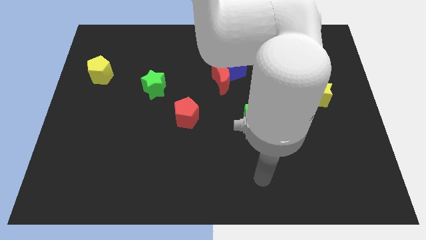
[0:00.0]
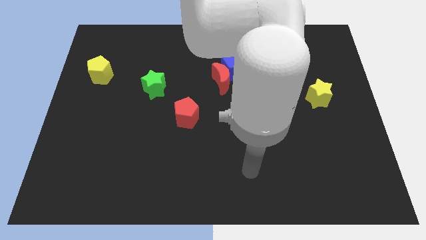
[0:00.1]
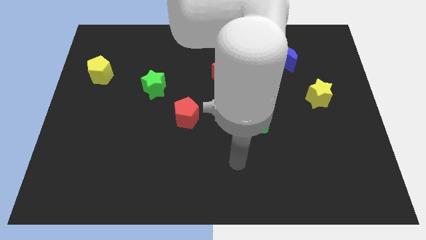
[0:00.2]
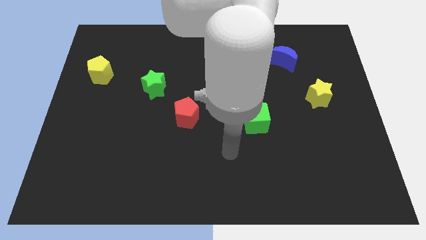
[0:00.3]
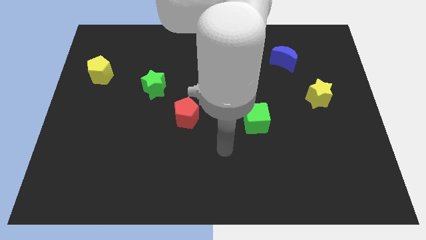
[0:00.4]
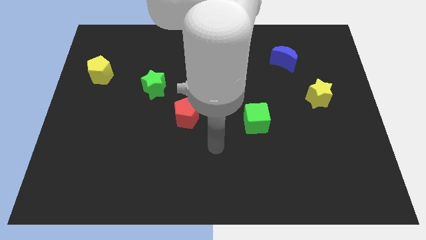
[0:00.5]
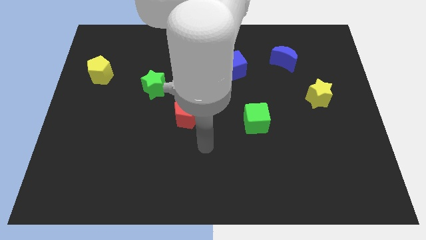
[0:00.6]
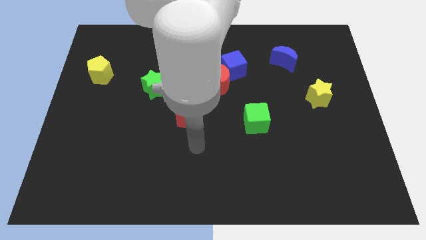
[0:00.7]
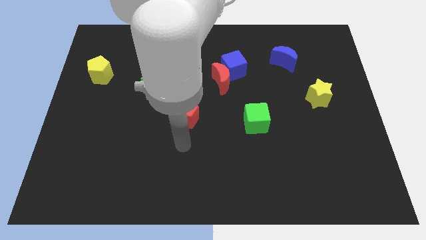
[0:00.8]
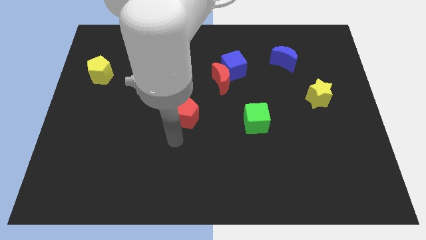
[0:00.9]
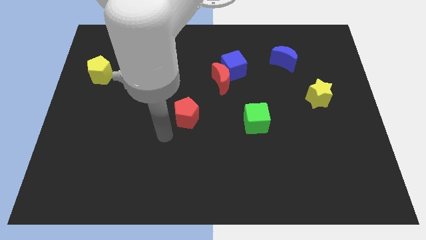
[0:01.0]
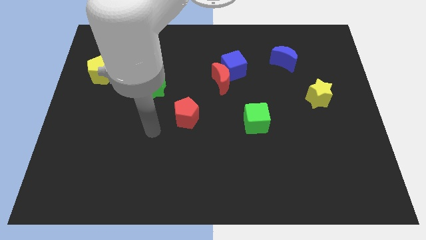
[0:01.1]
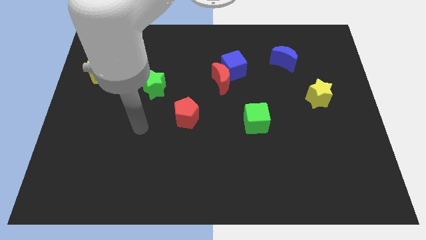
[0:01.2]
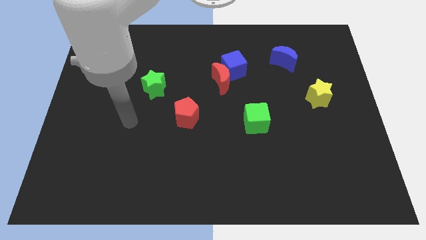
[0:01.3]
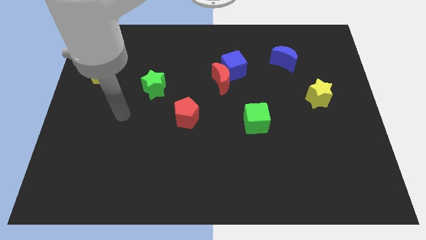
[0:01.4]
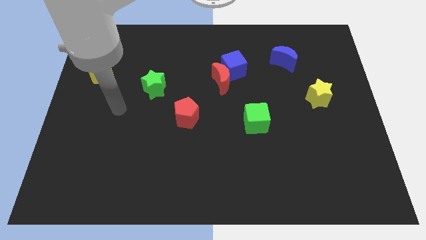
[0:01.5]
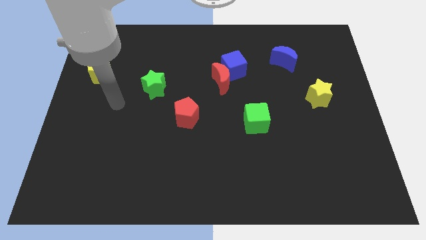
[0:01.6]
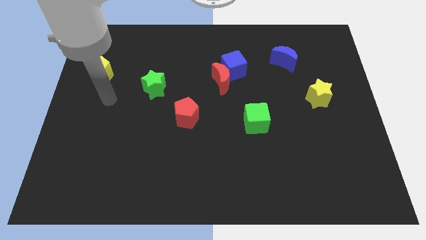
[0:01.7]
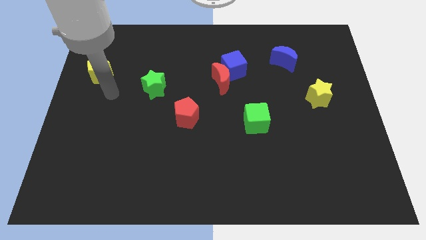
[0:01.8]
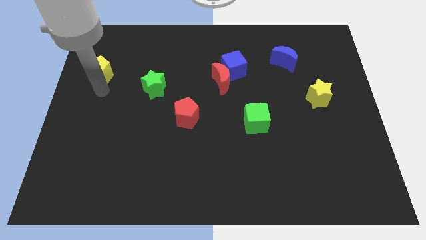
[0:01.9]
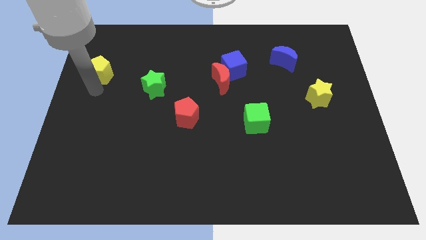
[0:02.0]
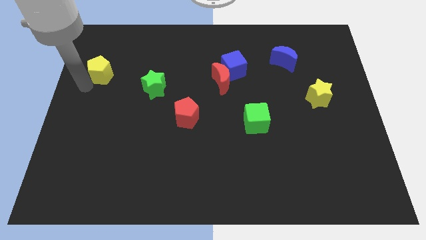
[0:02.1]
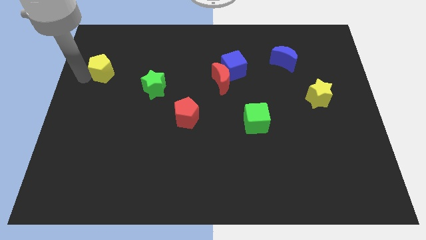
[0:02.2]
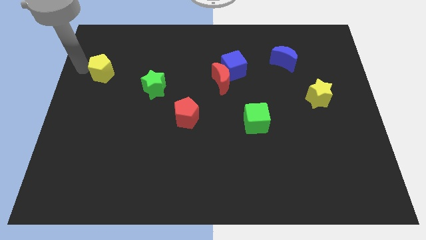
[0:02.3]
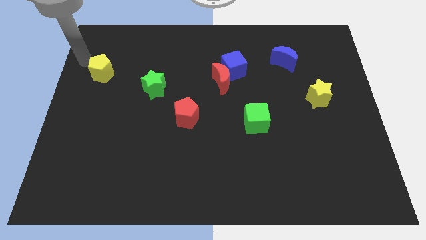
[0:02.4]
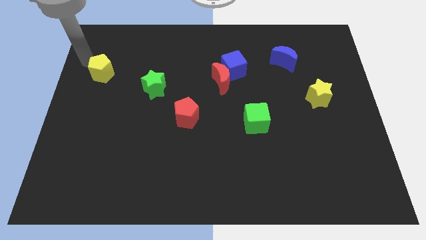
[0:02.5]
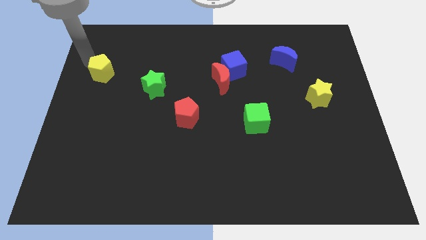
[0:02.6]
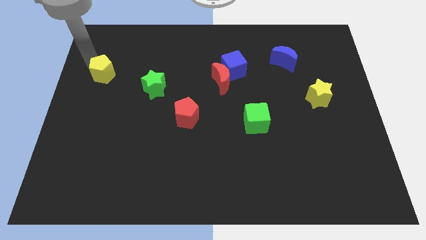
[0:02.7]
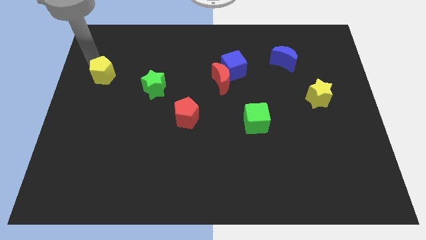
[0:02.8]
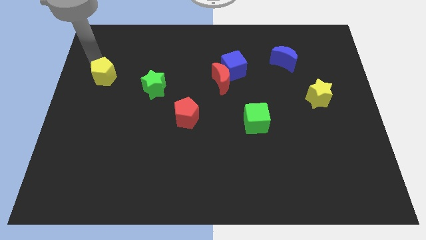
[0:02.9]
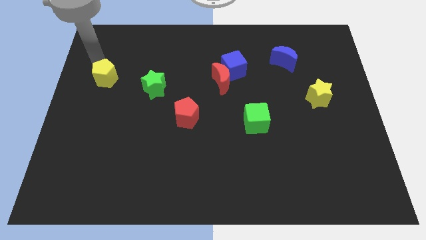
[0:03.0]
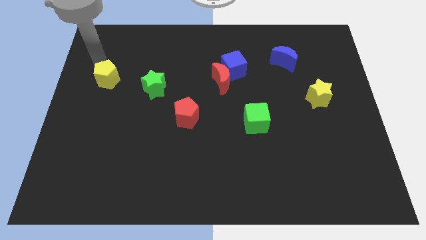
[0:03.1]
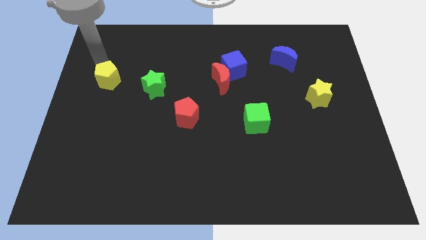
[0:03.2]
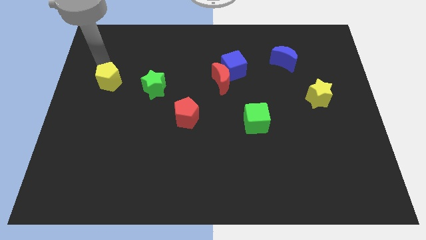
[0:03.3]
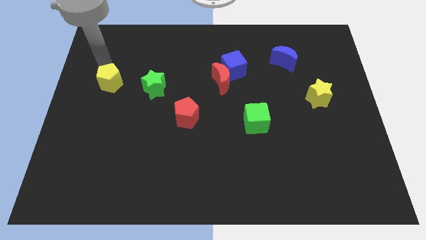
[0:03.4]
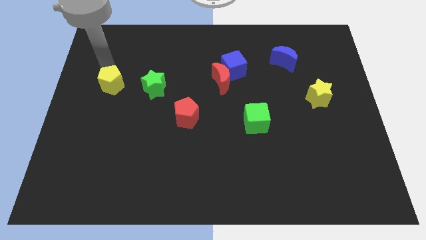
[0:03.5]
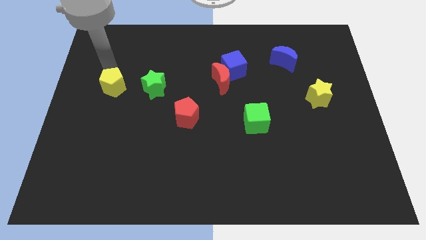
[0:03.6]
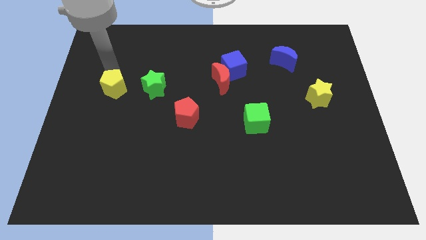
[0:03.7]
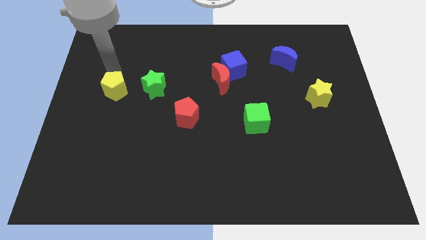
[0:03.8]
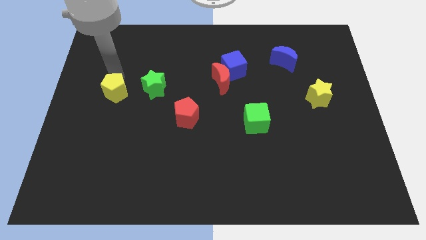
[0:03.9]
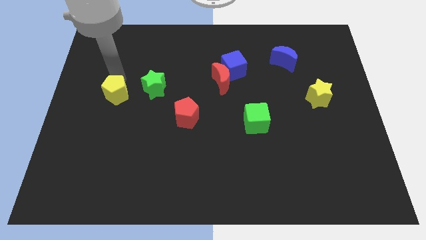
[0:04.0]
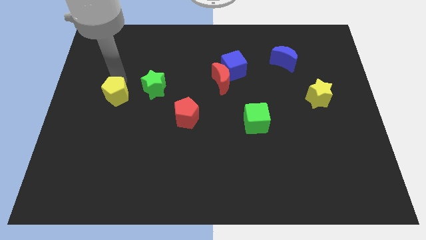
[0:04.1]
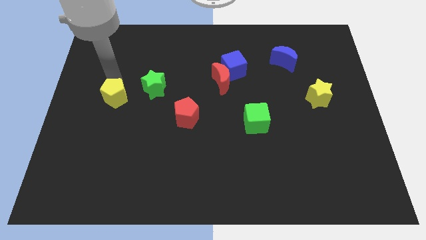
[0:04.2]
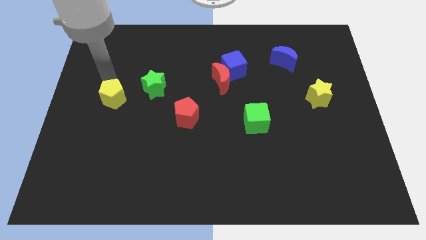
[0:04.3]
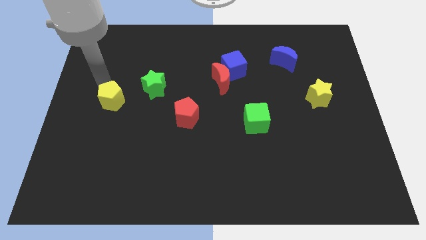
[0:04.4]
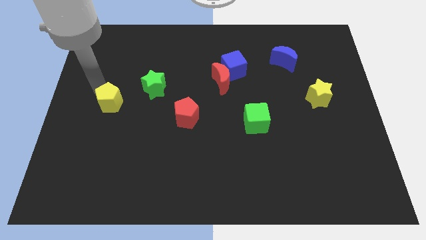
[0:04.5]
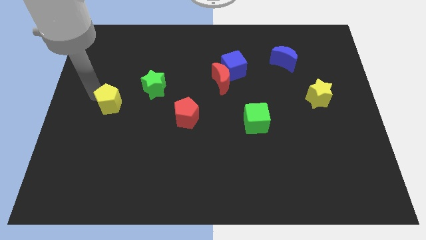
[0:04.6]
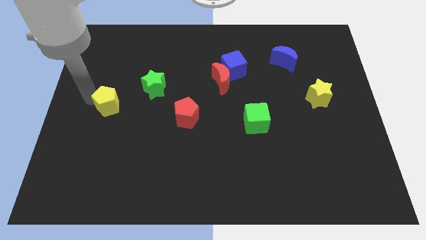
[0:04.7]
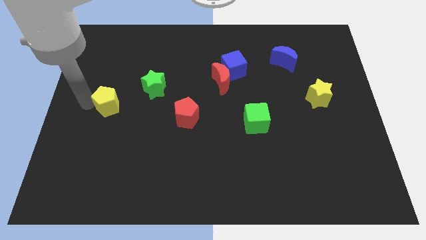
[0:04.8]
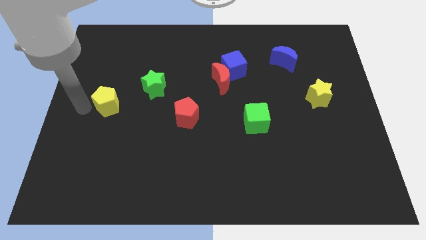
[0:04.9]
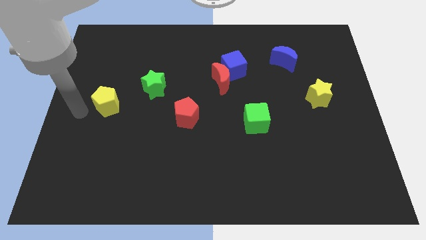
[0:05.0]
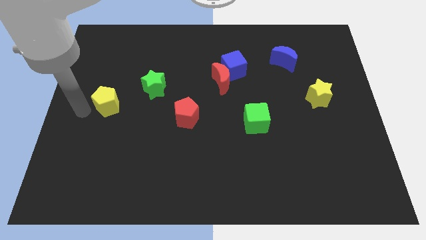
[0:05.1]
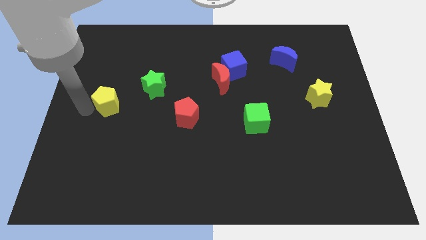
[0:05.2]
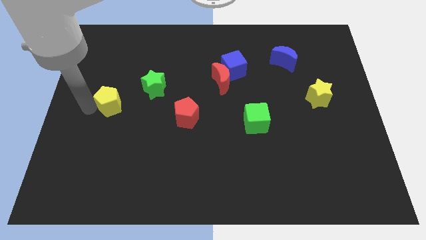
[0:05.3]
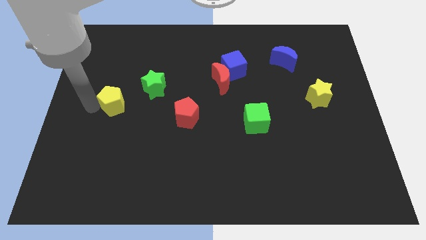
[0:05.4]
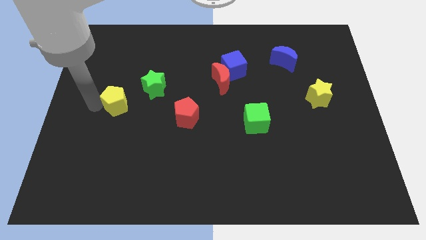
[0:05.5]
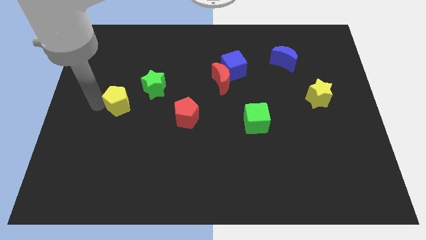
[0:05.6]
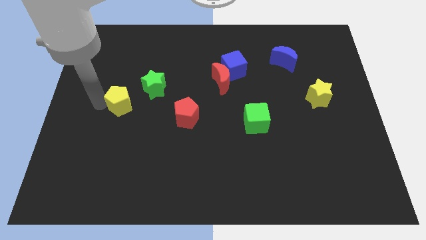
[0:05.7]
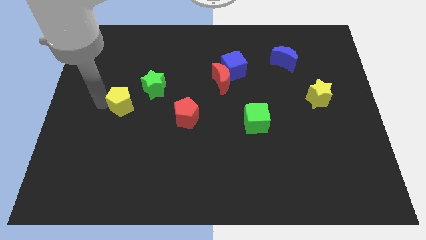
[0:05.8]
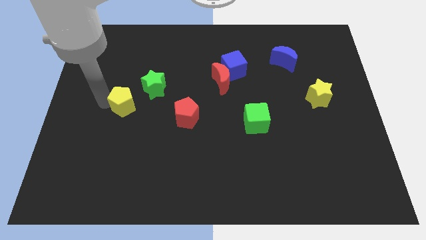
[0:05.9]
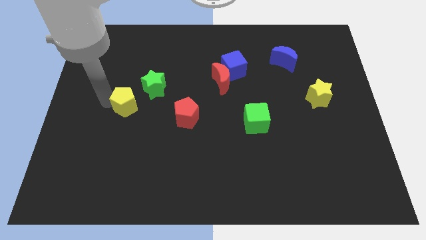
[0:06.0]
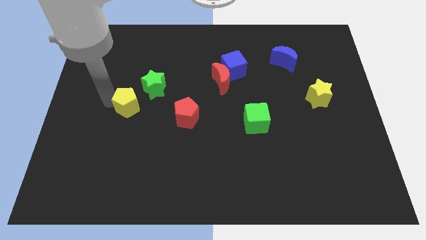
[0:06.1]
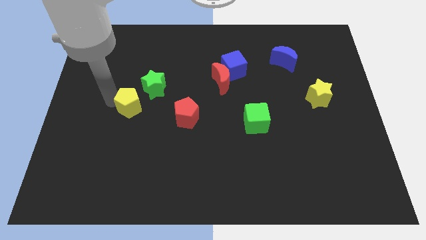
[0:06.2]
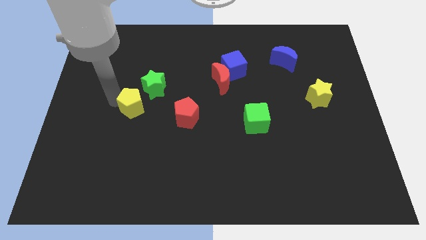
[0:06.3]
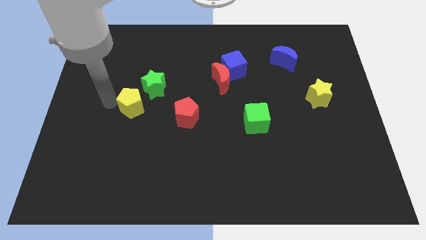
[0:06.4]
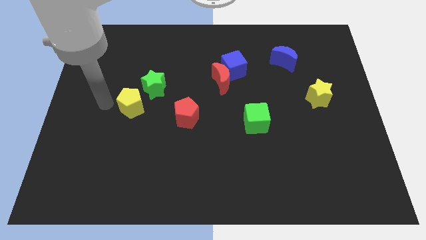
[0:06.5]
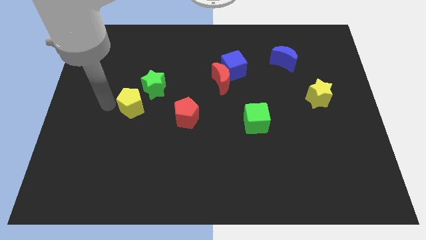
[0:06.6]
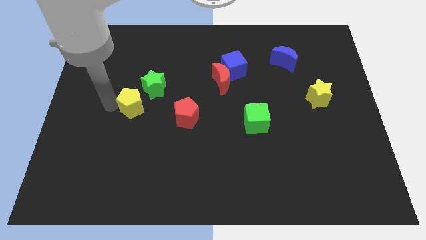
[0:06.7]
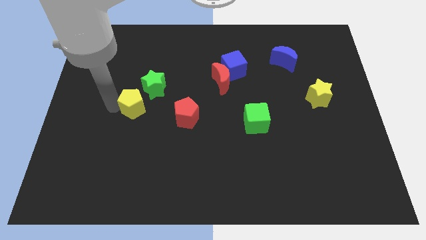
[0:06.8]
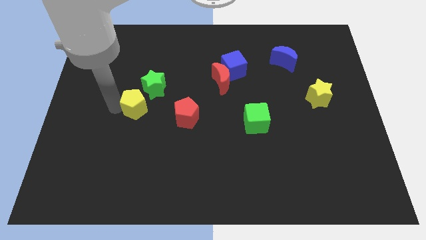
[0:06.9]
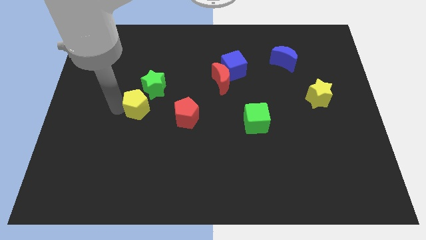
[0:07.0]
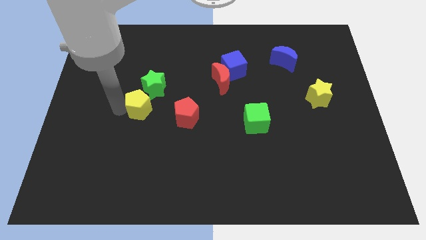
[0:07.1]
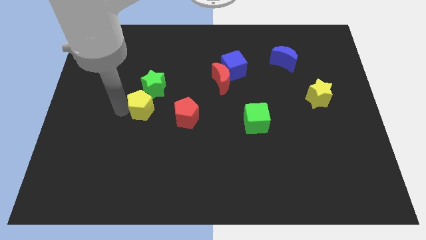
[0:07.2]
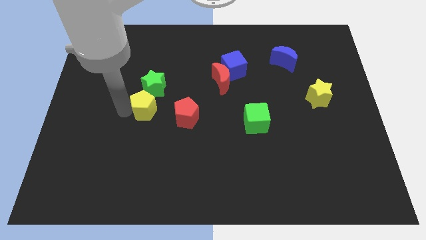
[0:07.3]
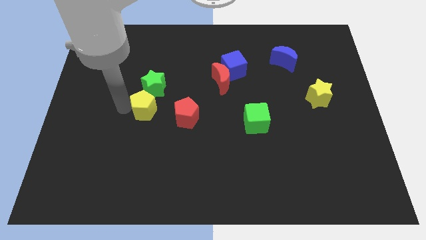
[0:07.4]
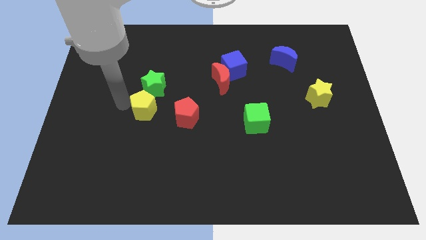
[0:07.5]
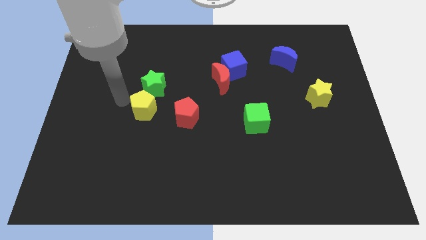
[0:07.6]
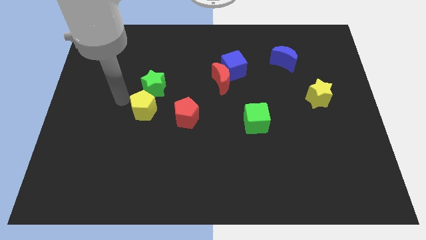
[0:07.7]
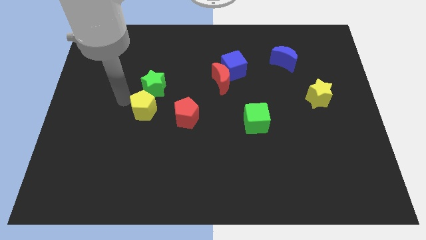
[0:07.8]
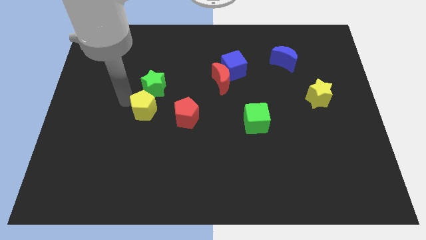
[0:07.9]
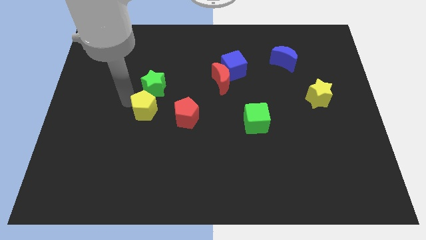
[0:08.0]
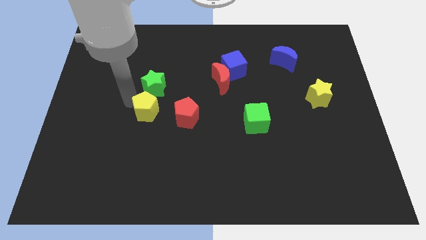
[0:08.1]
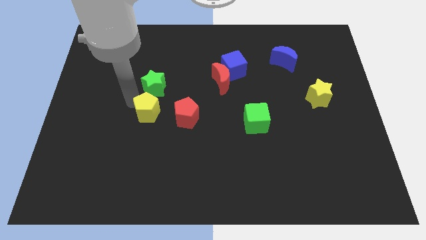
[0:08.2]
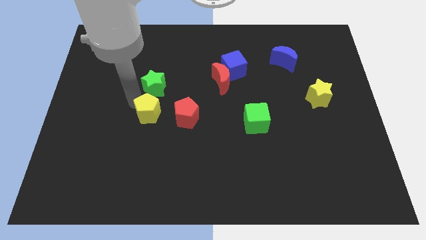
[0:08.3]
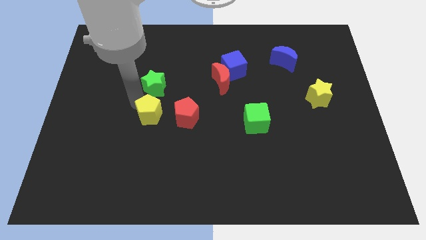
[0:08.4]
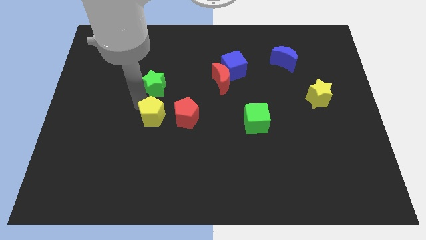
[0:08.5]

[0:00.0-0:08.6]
slide the yellow pentagon down and to the right
